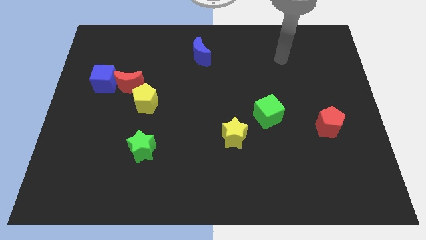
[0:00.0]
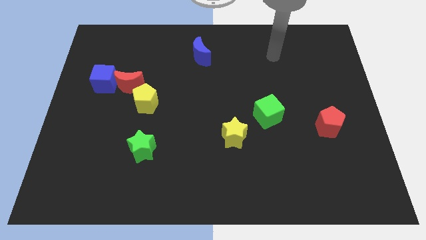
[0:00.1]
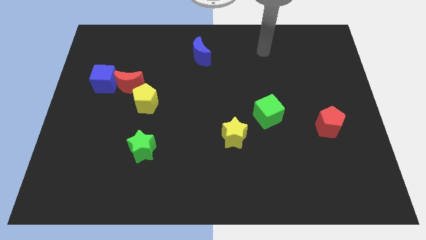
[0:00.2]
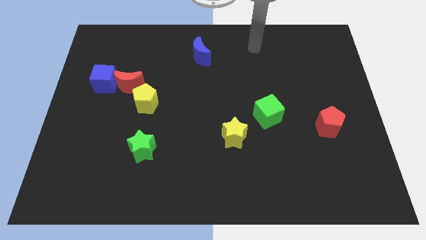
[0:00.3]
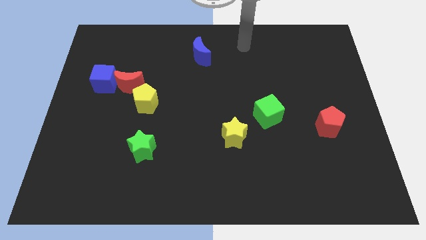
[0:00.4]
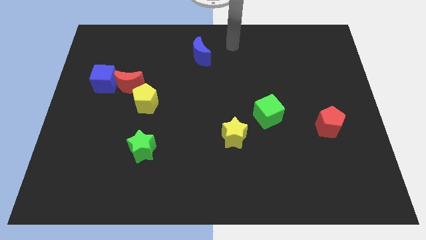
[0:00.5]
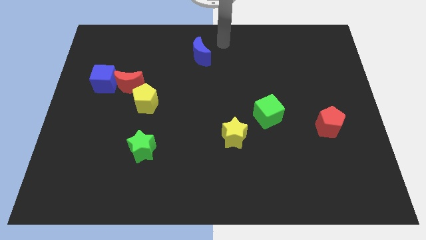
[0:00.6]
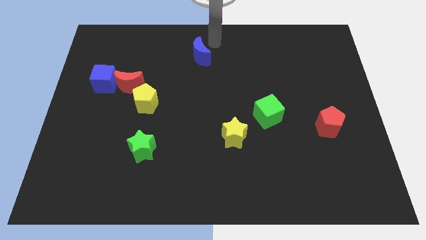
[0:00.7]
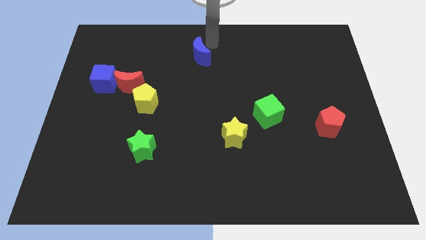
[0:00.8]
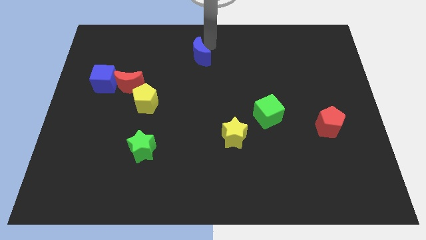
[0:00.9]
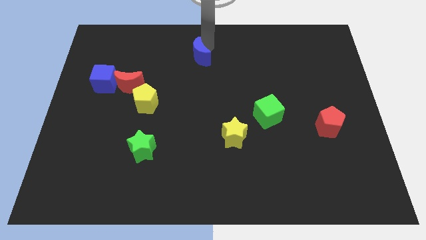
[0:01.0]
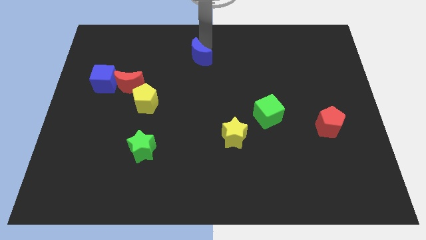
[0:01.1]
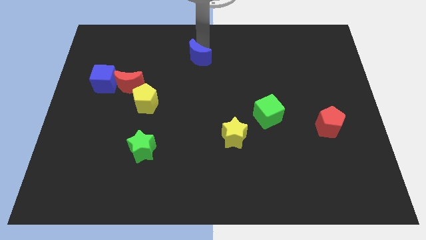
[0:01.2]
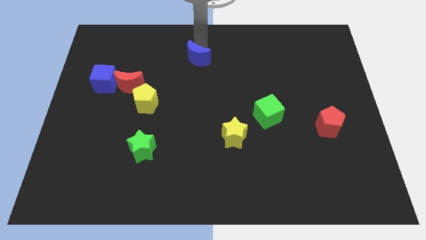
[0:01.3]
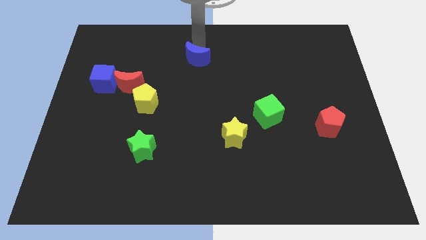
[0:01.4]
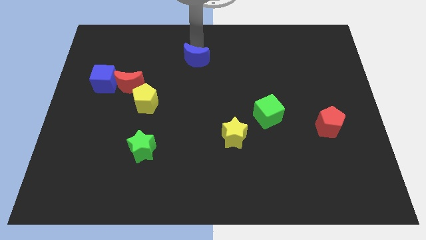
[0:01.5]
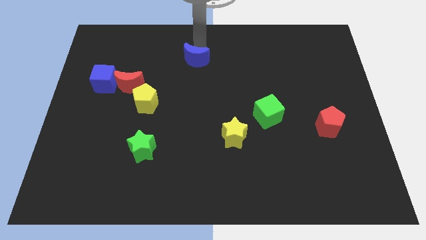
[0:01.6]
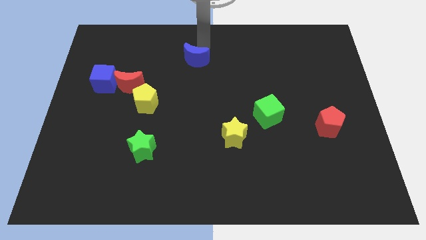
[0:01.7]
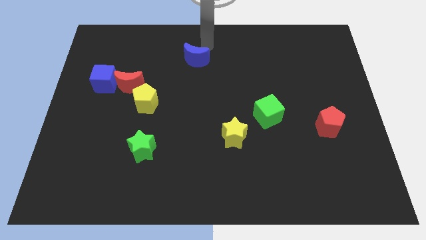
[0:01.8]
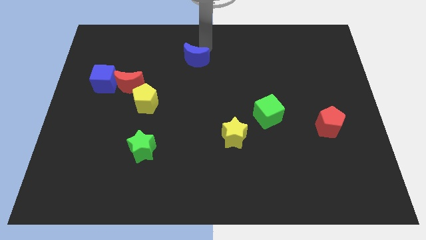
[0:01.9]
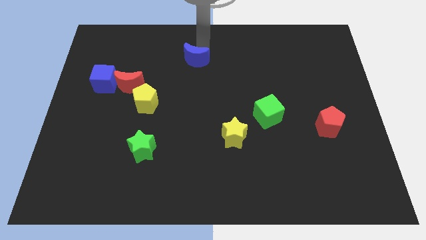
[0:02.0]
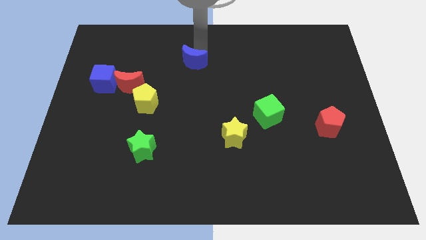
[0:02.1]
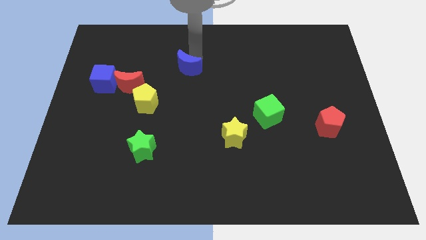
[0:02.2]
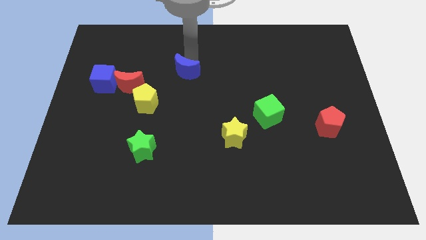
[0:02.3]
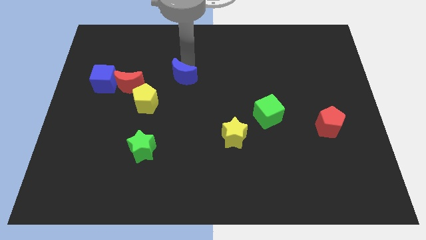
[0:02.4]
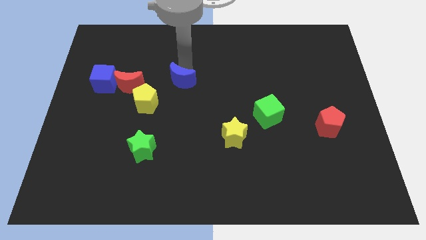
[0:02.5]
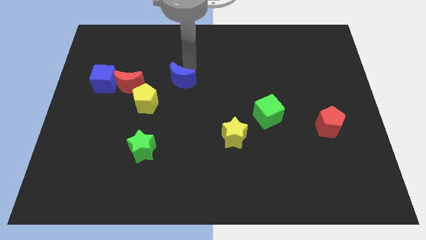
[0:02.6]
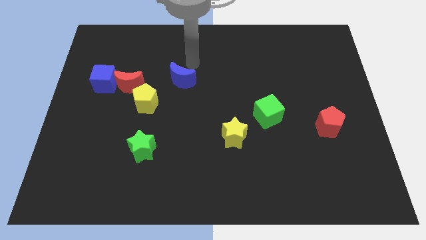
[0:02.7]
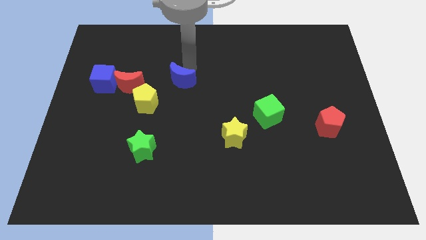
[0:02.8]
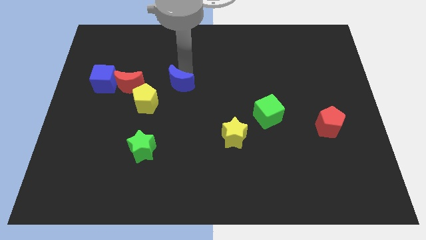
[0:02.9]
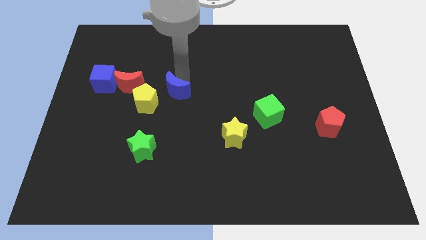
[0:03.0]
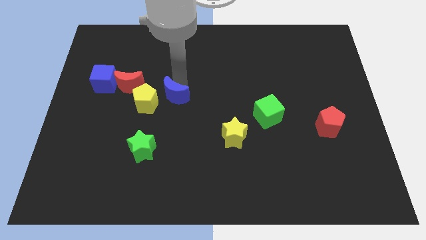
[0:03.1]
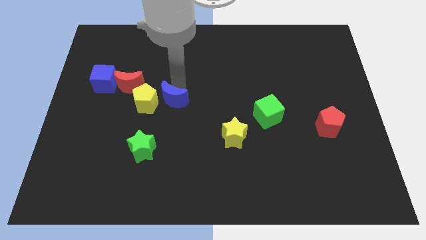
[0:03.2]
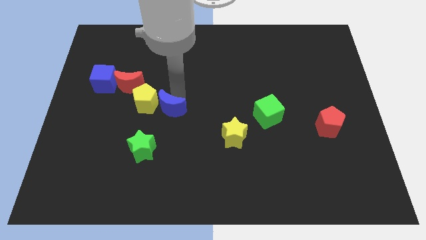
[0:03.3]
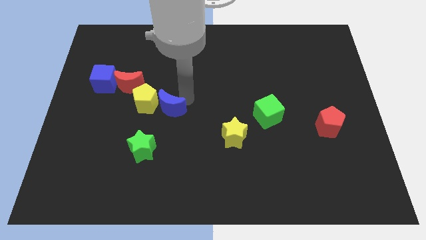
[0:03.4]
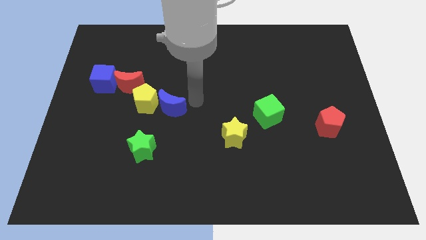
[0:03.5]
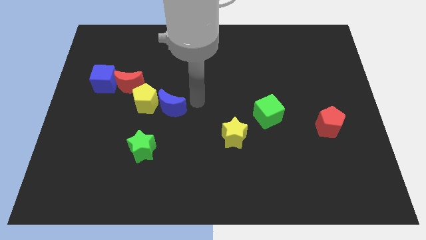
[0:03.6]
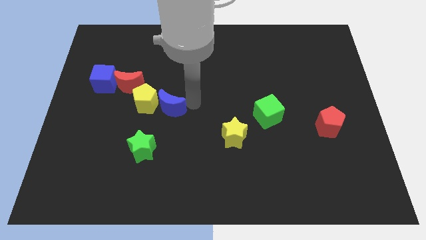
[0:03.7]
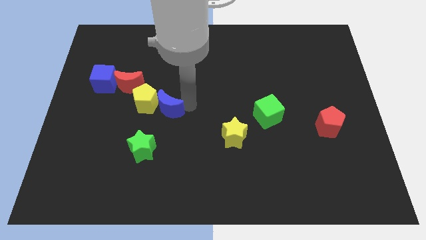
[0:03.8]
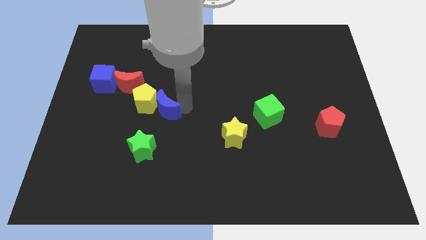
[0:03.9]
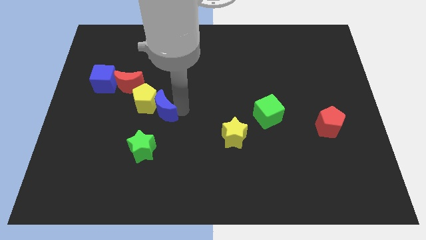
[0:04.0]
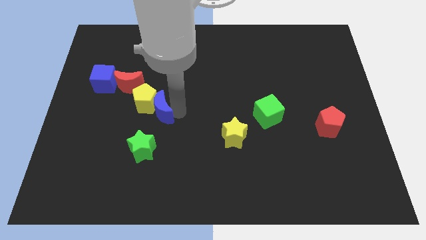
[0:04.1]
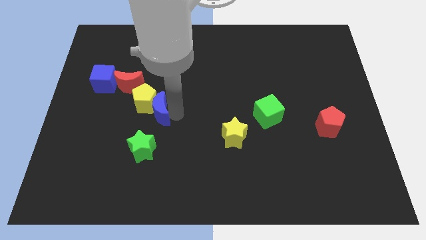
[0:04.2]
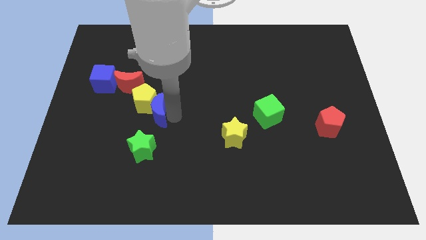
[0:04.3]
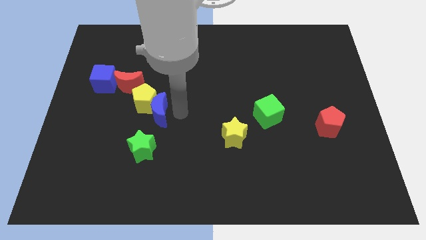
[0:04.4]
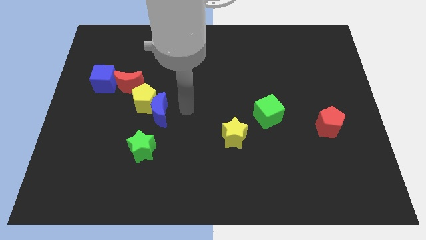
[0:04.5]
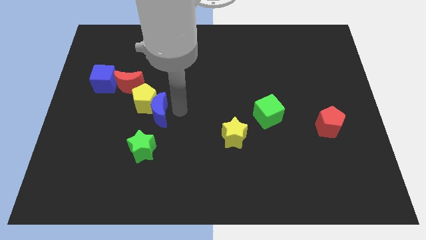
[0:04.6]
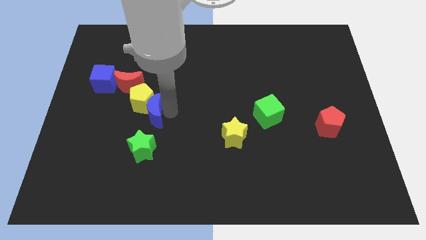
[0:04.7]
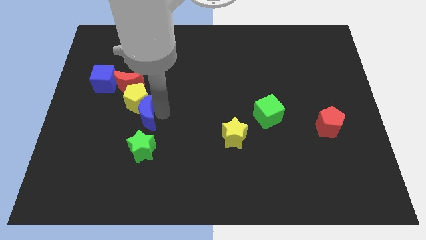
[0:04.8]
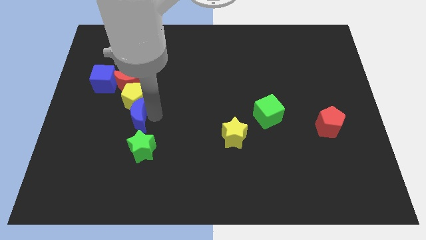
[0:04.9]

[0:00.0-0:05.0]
move the blue moon to the bottom of the red moon

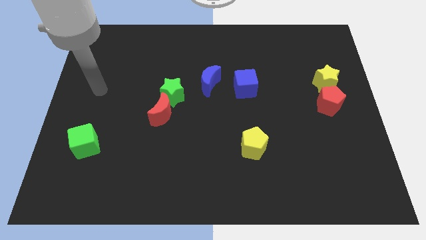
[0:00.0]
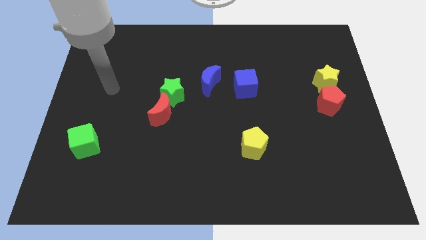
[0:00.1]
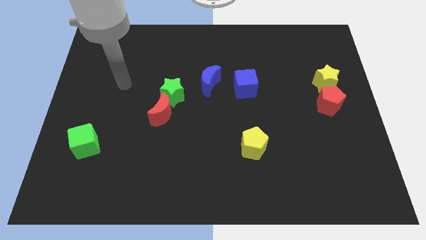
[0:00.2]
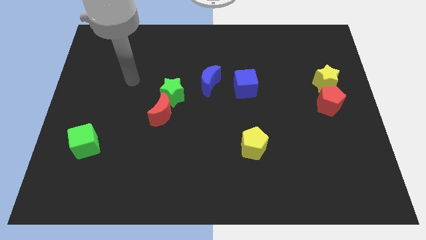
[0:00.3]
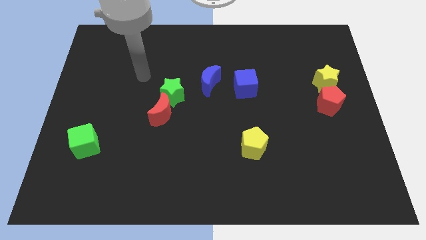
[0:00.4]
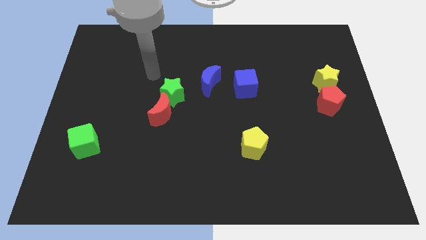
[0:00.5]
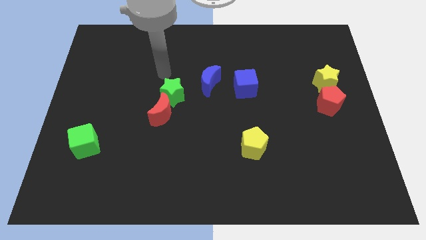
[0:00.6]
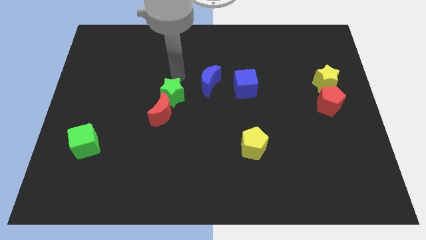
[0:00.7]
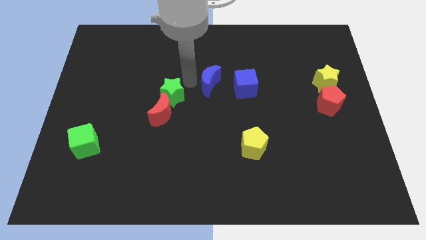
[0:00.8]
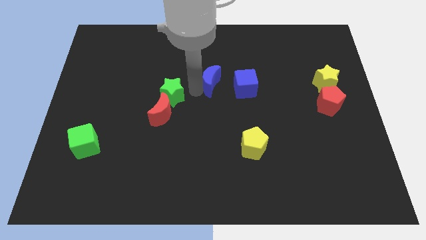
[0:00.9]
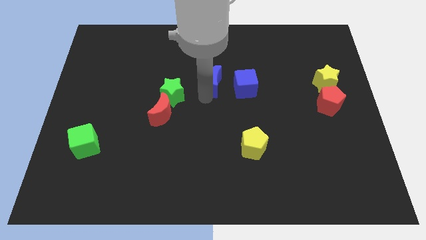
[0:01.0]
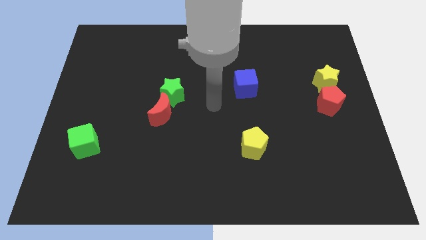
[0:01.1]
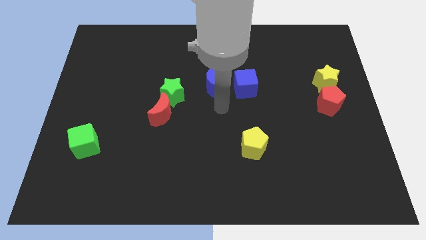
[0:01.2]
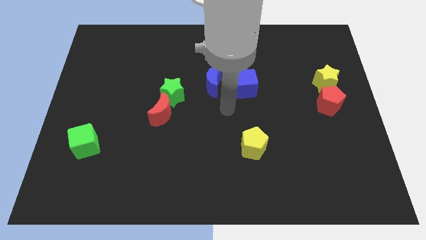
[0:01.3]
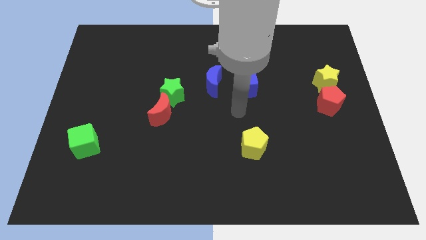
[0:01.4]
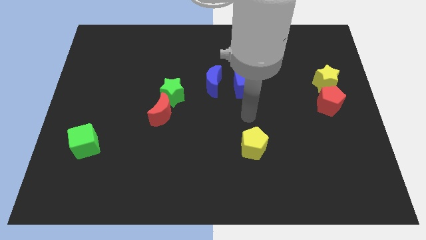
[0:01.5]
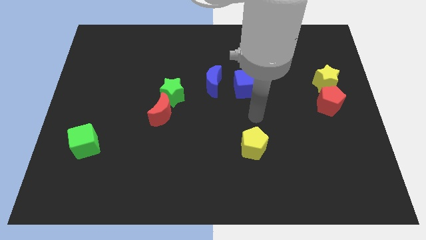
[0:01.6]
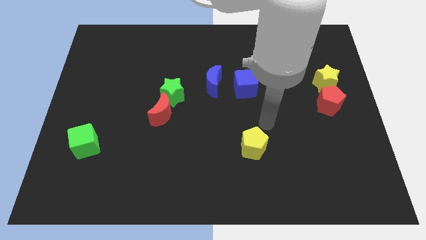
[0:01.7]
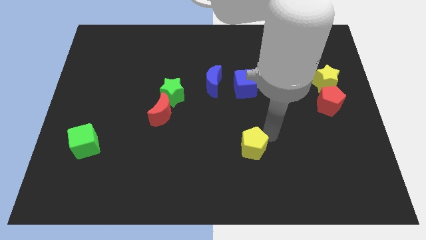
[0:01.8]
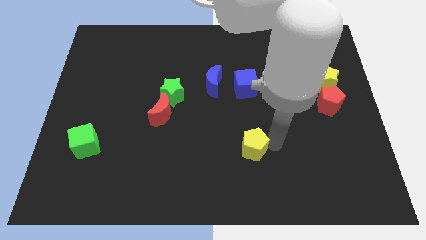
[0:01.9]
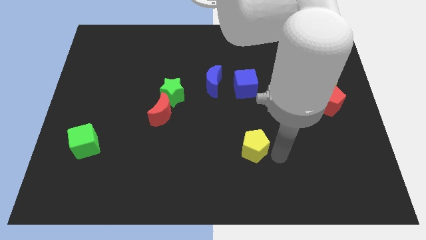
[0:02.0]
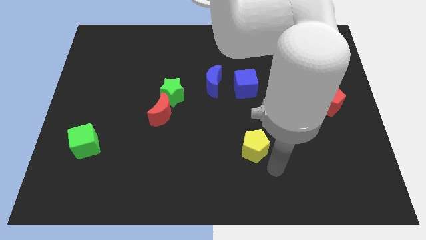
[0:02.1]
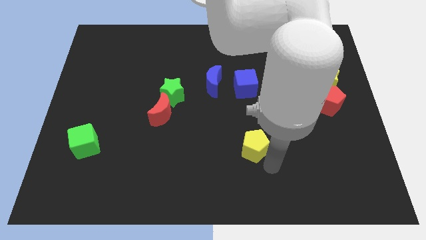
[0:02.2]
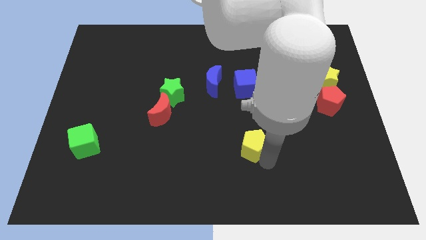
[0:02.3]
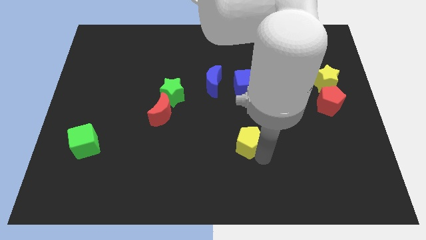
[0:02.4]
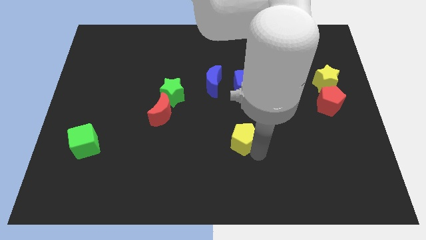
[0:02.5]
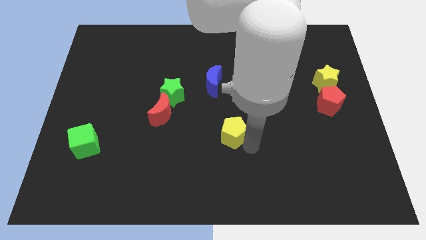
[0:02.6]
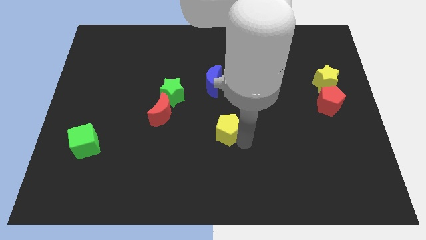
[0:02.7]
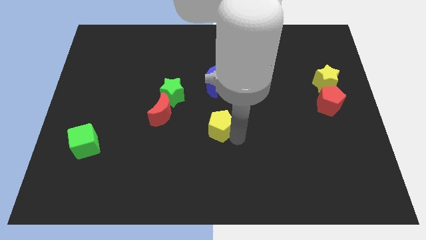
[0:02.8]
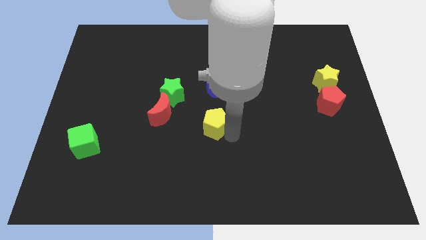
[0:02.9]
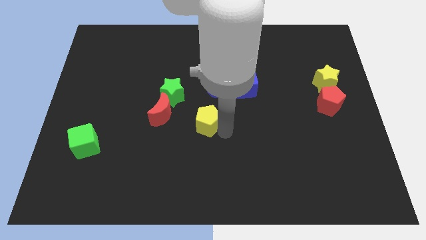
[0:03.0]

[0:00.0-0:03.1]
put the yellow pentagon to the bottom right of the green star
